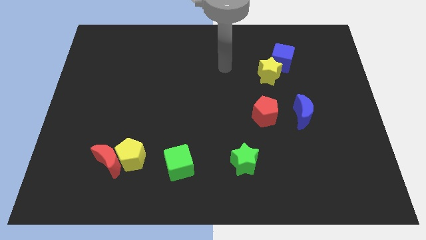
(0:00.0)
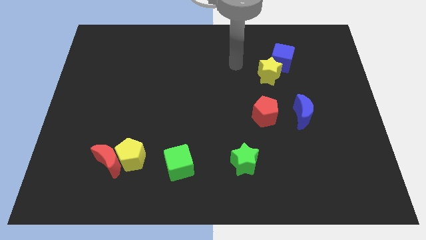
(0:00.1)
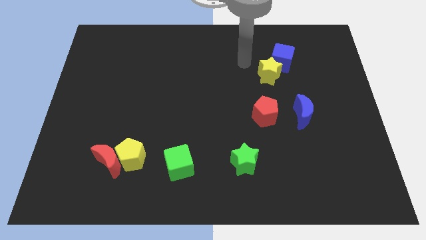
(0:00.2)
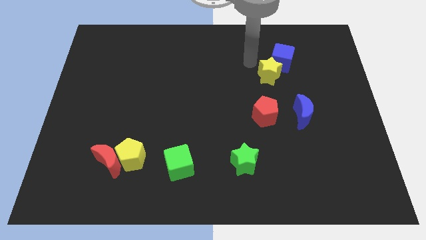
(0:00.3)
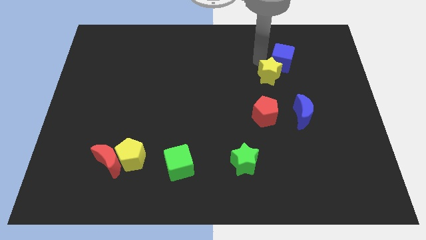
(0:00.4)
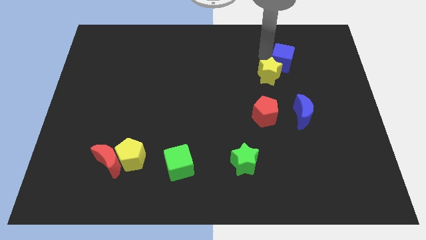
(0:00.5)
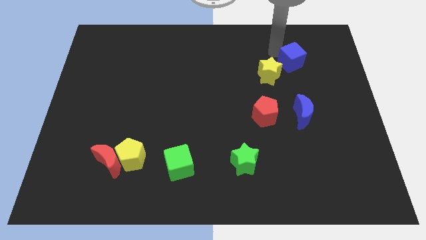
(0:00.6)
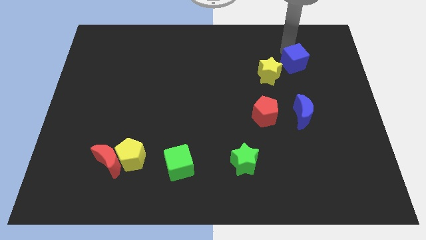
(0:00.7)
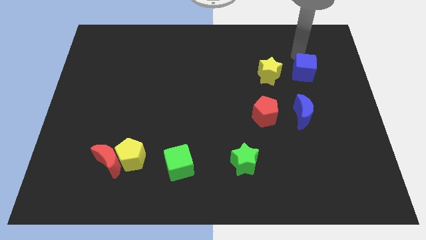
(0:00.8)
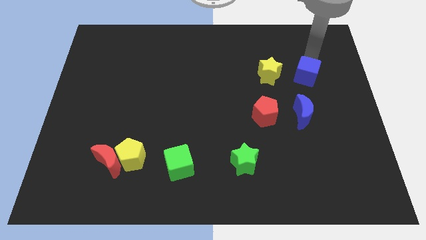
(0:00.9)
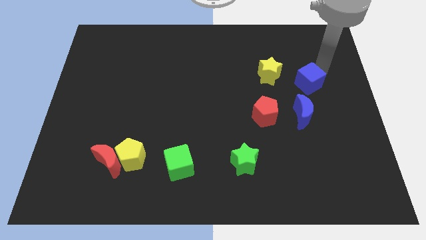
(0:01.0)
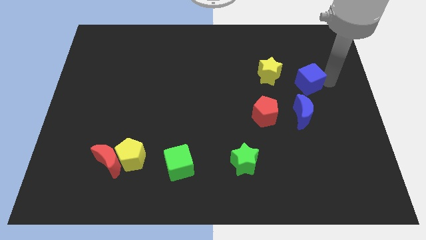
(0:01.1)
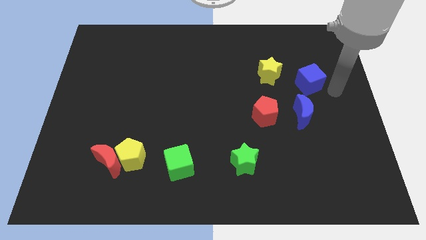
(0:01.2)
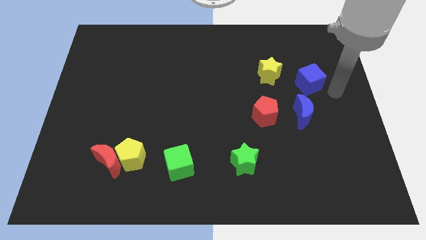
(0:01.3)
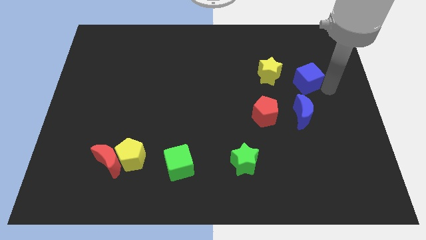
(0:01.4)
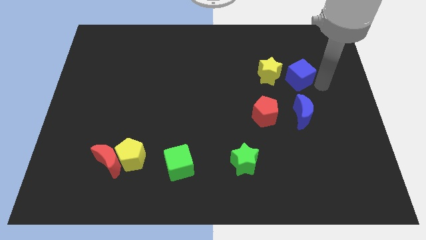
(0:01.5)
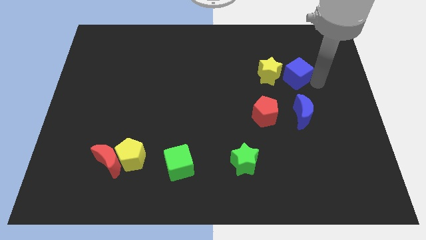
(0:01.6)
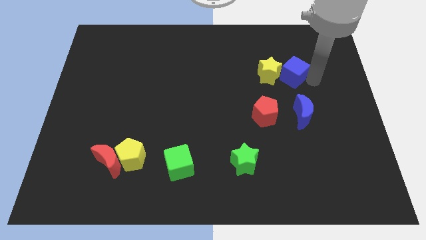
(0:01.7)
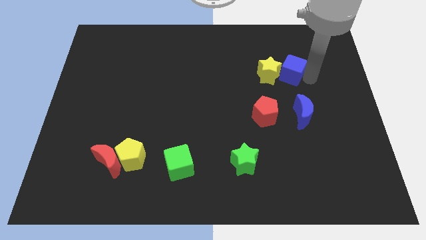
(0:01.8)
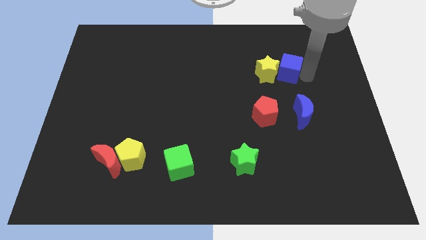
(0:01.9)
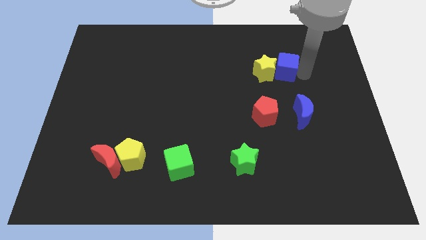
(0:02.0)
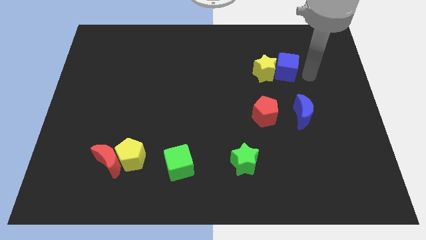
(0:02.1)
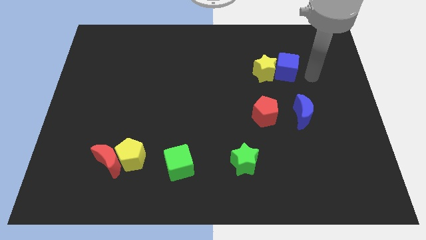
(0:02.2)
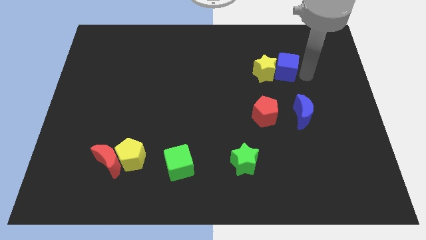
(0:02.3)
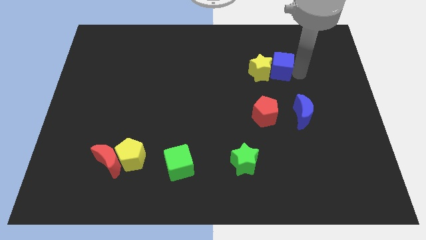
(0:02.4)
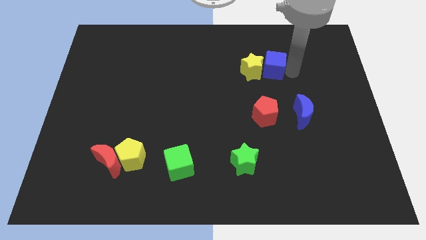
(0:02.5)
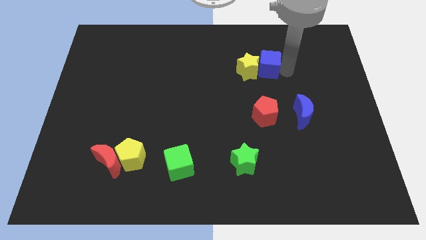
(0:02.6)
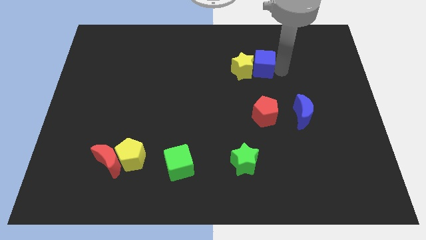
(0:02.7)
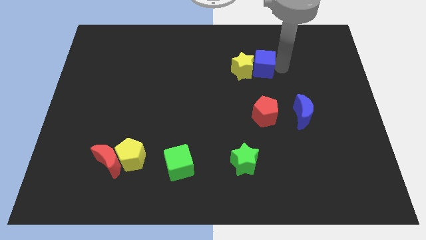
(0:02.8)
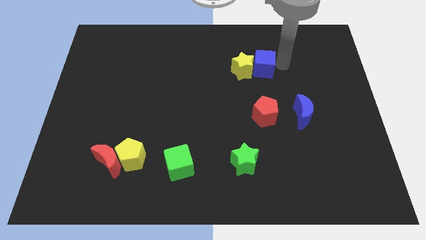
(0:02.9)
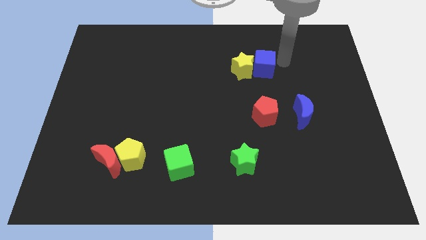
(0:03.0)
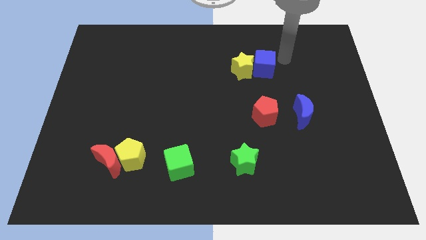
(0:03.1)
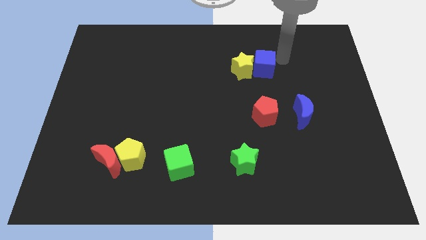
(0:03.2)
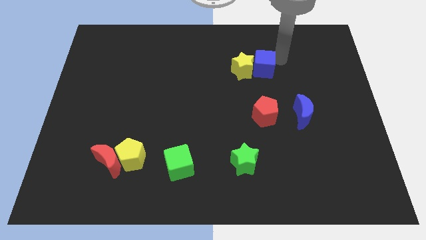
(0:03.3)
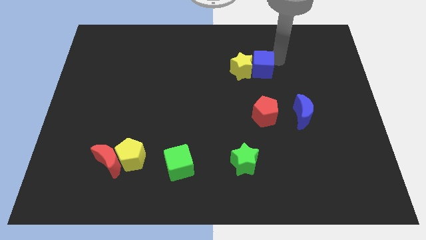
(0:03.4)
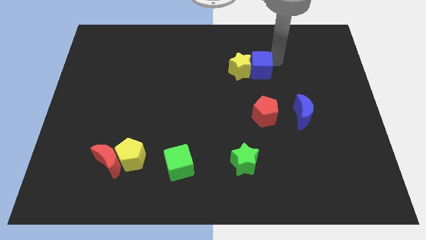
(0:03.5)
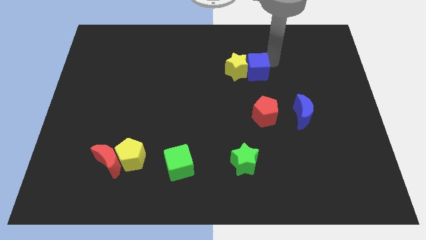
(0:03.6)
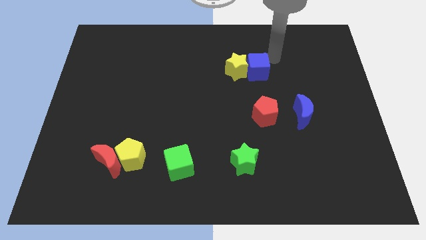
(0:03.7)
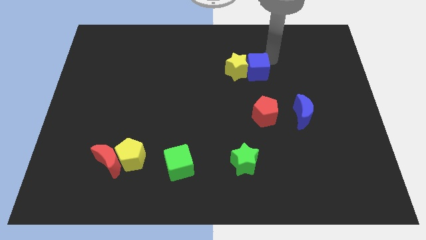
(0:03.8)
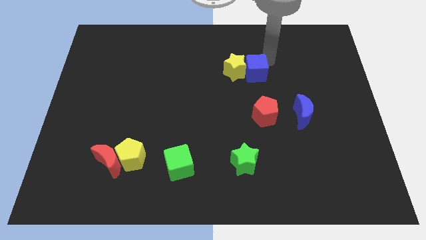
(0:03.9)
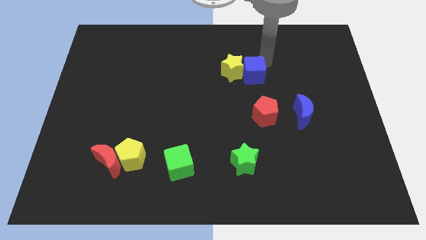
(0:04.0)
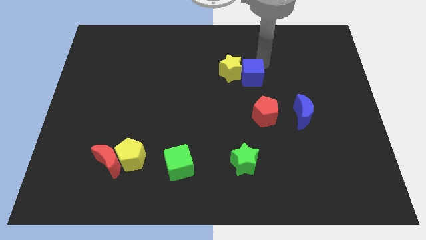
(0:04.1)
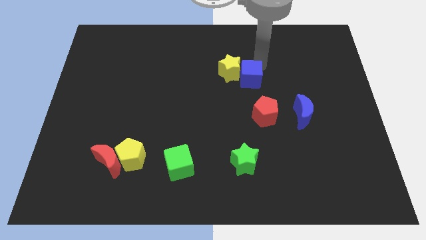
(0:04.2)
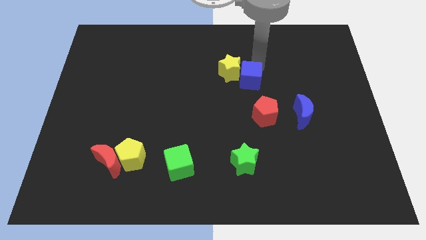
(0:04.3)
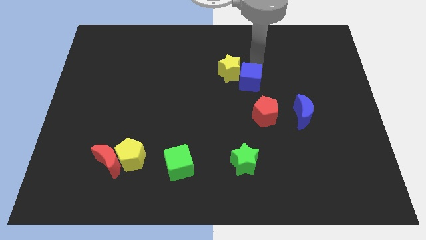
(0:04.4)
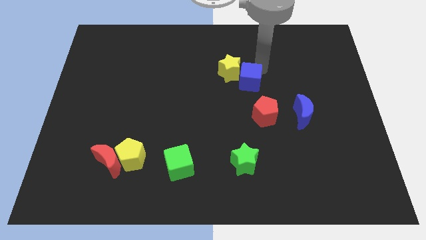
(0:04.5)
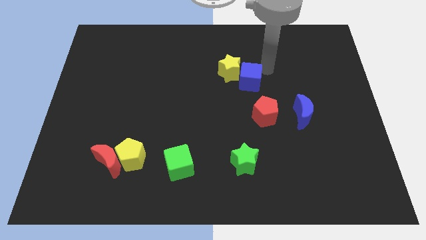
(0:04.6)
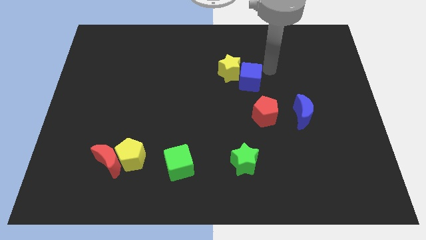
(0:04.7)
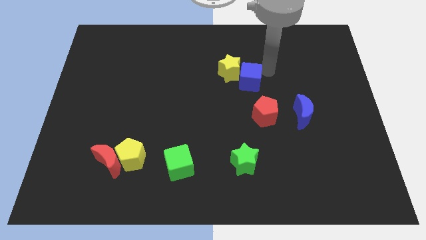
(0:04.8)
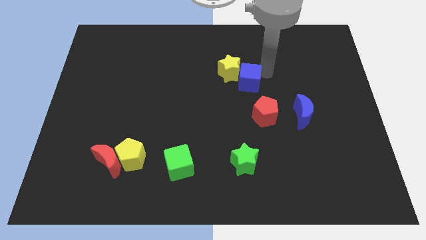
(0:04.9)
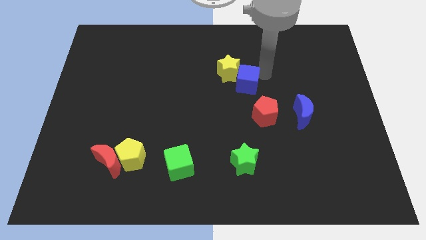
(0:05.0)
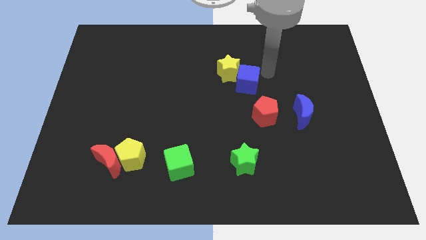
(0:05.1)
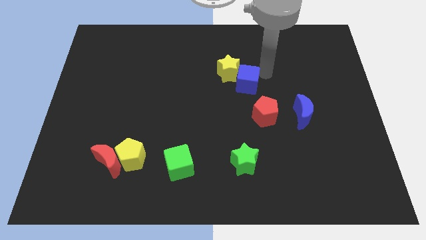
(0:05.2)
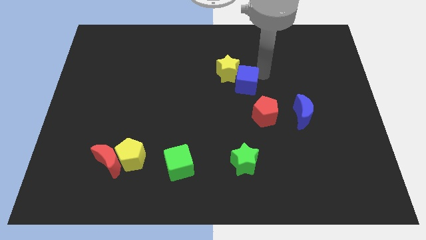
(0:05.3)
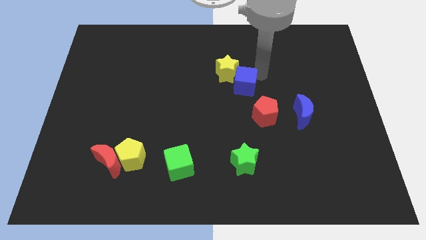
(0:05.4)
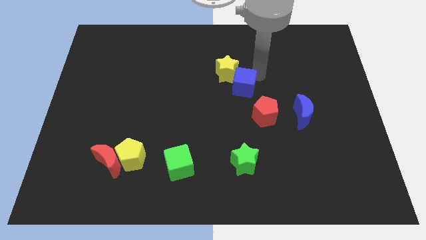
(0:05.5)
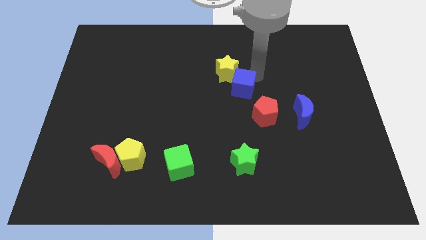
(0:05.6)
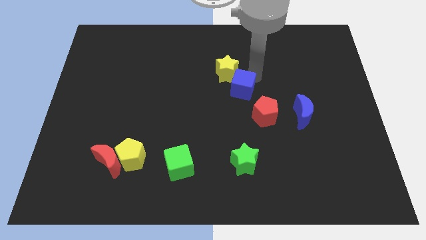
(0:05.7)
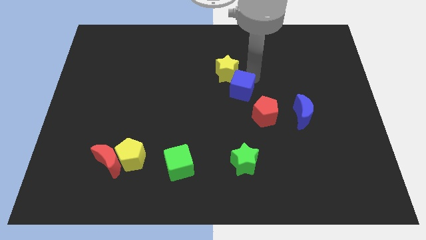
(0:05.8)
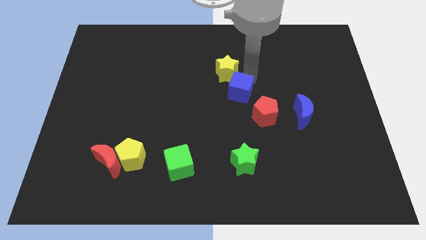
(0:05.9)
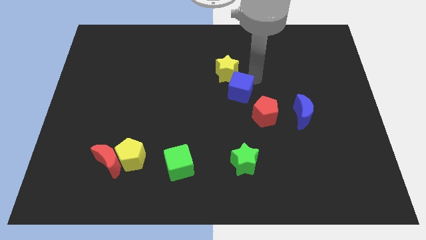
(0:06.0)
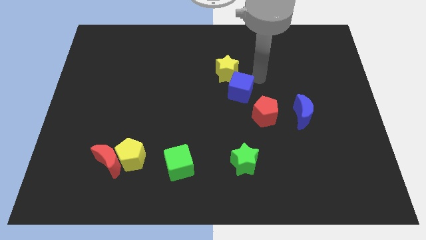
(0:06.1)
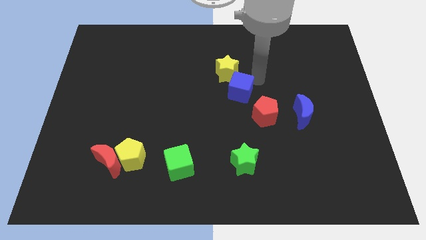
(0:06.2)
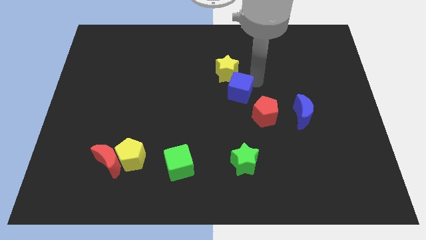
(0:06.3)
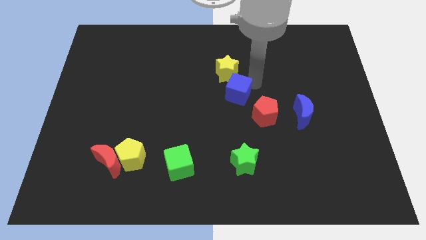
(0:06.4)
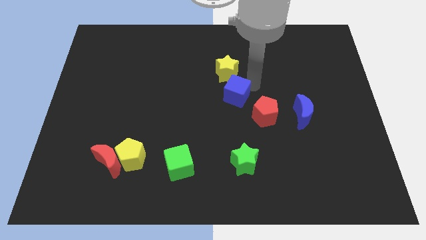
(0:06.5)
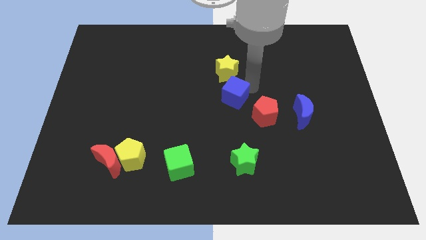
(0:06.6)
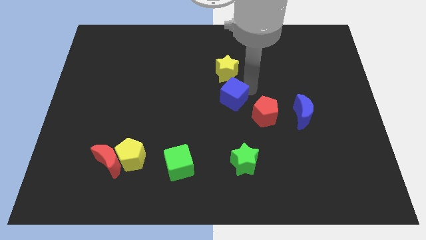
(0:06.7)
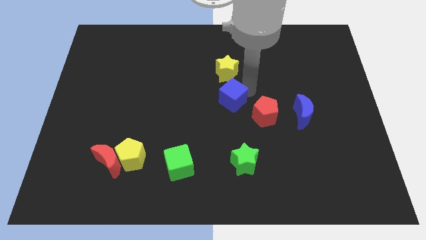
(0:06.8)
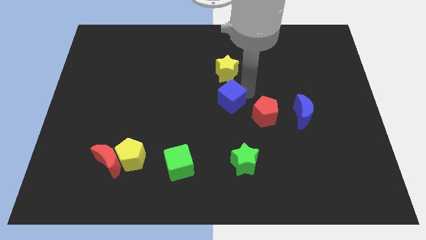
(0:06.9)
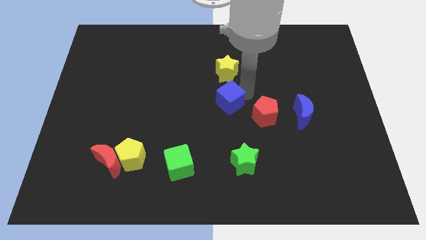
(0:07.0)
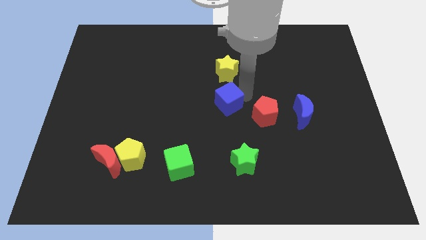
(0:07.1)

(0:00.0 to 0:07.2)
move the blue cube downwards and to the left

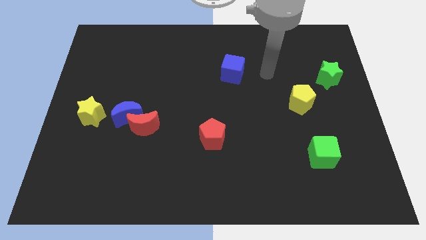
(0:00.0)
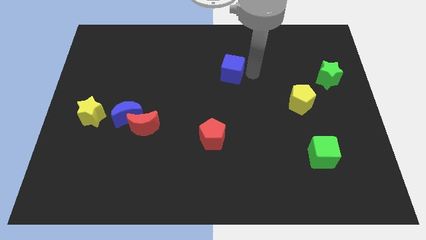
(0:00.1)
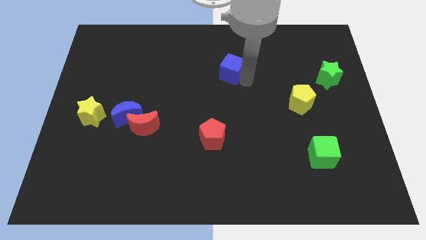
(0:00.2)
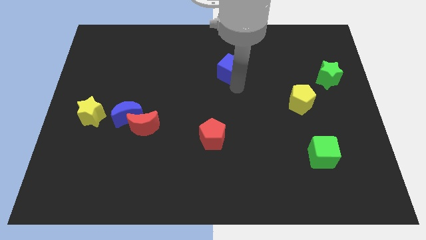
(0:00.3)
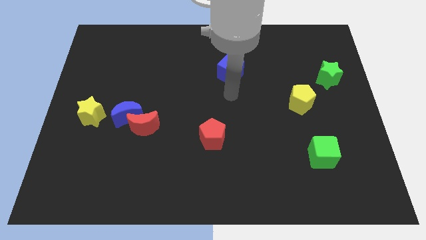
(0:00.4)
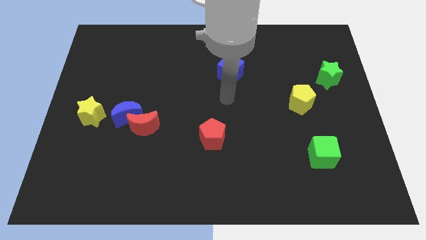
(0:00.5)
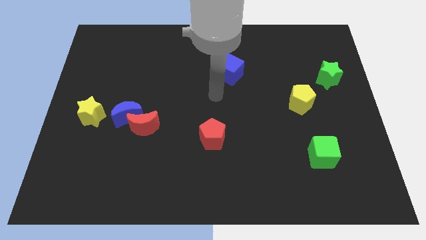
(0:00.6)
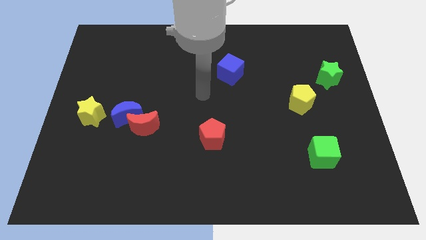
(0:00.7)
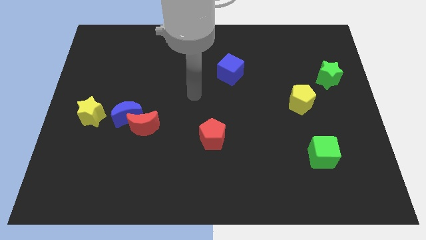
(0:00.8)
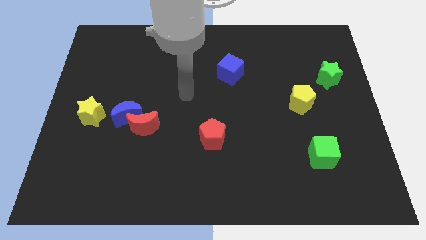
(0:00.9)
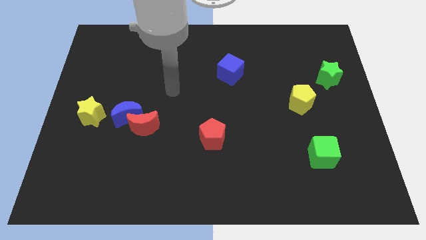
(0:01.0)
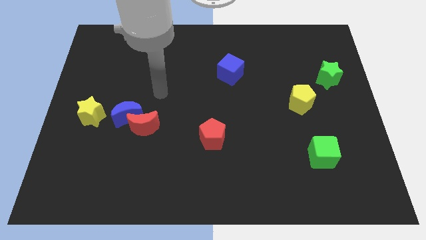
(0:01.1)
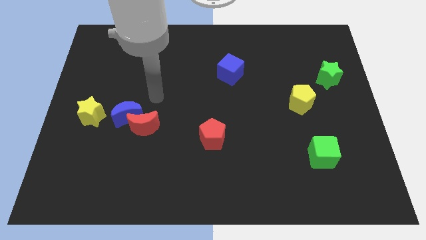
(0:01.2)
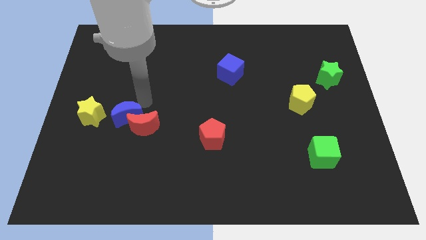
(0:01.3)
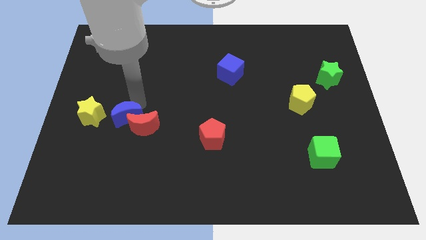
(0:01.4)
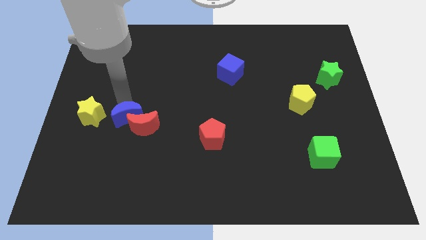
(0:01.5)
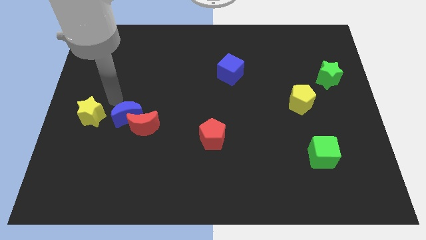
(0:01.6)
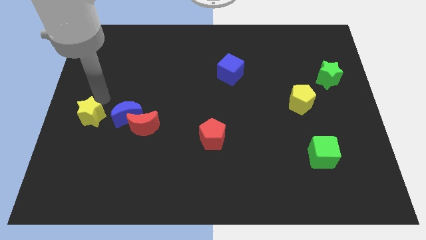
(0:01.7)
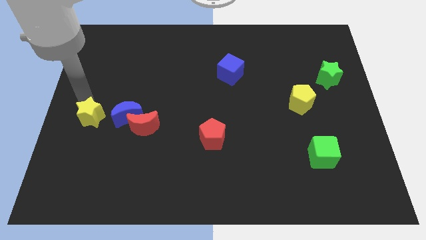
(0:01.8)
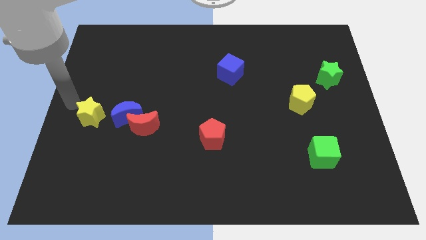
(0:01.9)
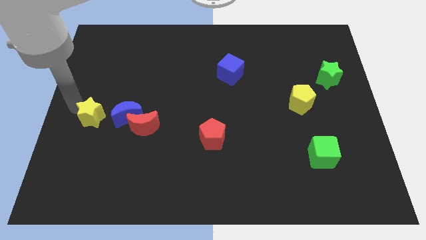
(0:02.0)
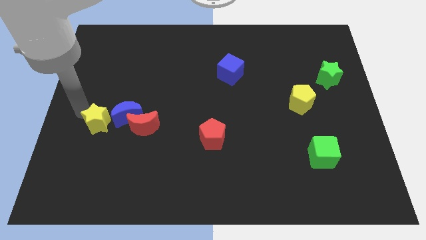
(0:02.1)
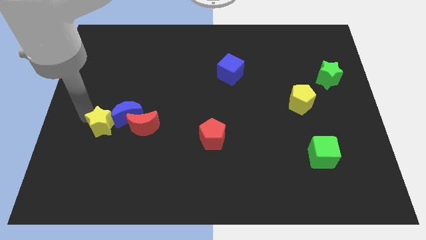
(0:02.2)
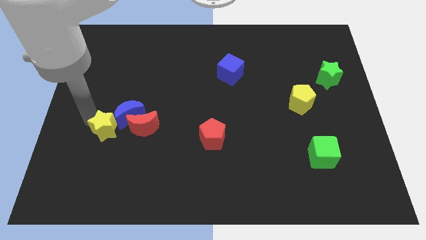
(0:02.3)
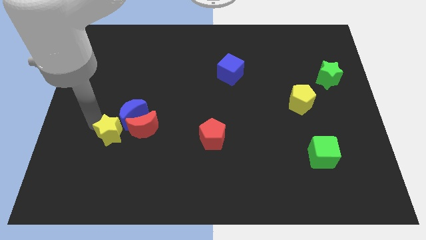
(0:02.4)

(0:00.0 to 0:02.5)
slightly move the yellow star downwards and to the right
